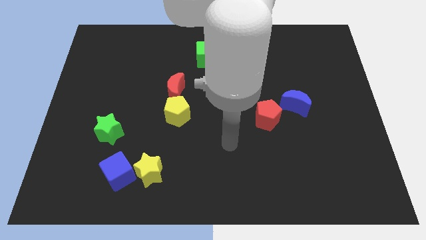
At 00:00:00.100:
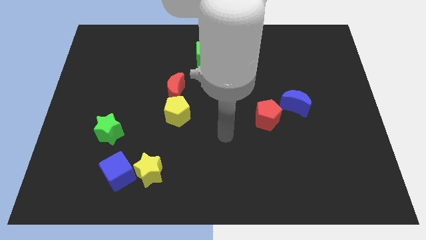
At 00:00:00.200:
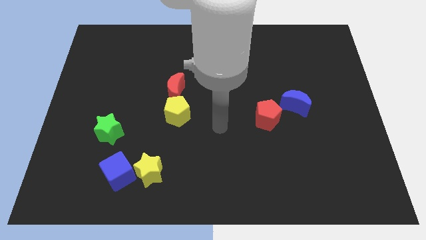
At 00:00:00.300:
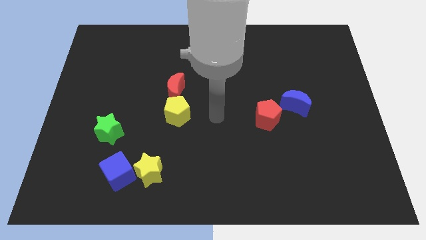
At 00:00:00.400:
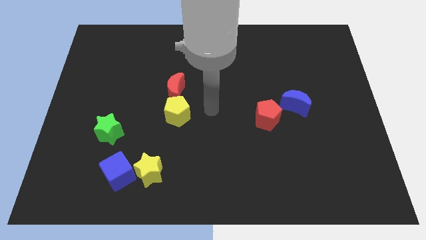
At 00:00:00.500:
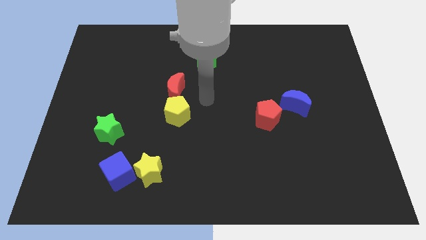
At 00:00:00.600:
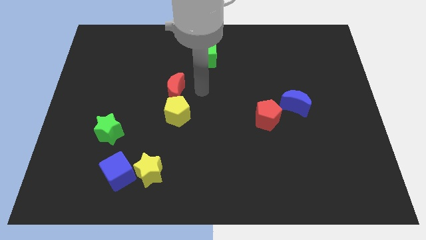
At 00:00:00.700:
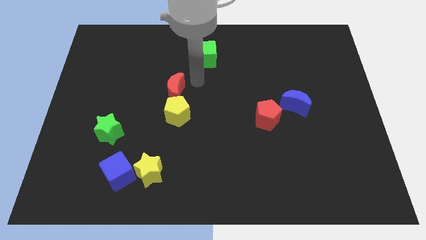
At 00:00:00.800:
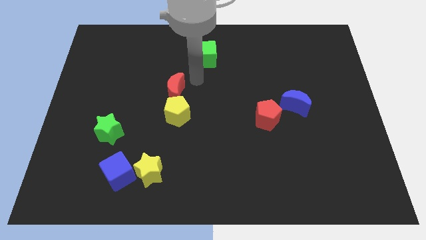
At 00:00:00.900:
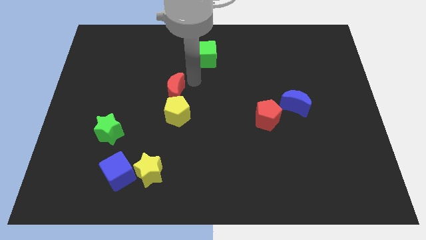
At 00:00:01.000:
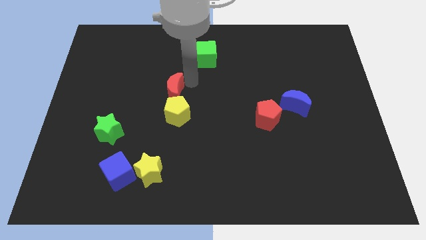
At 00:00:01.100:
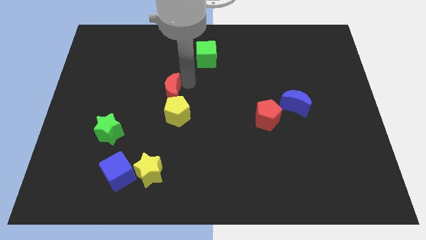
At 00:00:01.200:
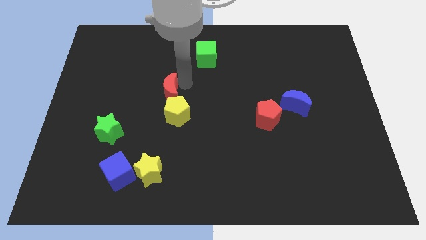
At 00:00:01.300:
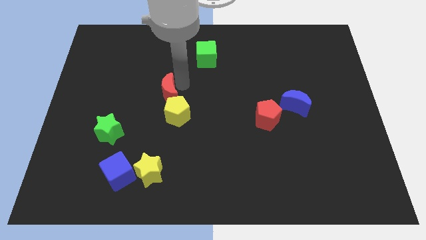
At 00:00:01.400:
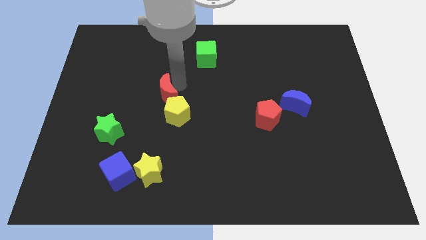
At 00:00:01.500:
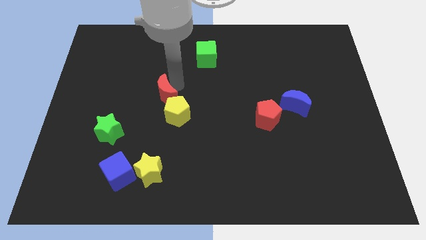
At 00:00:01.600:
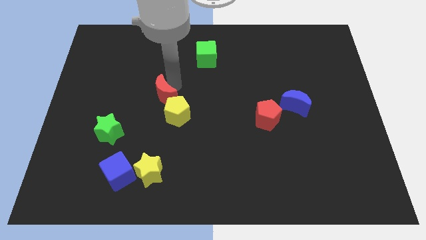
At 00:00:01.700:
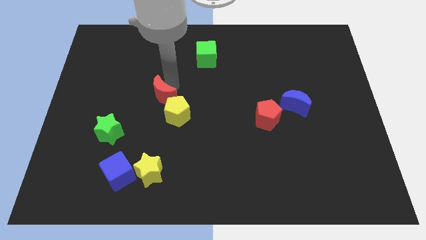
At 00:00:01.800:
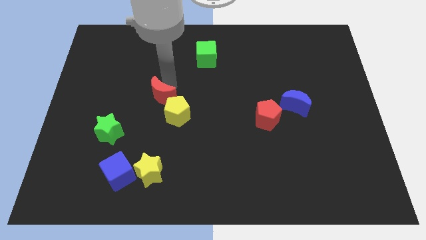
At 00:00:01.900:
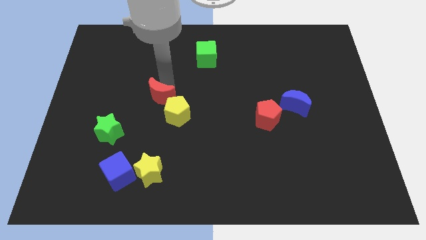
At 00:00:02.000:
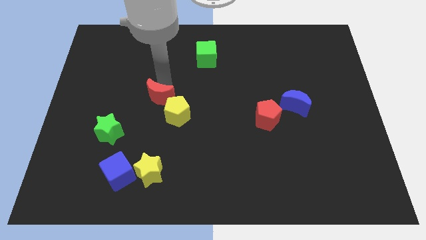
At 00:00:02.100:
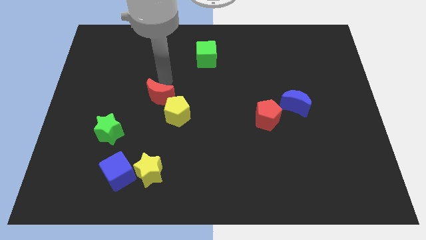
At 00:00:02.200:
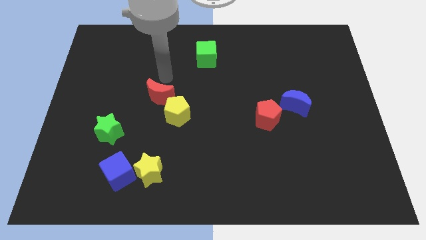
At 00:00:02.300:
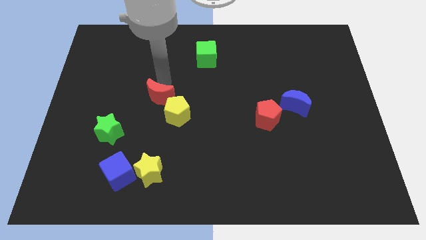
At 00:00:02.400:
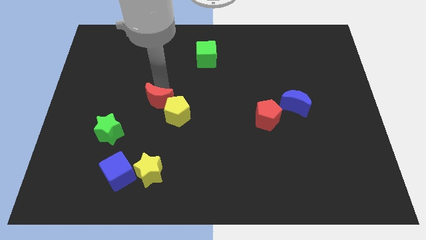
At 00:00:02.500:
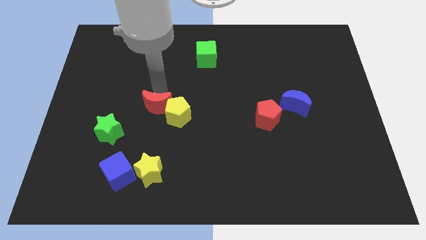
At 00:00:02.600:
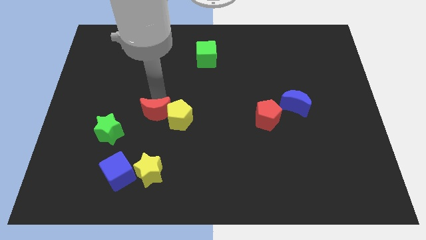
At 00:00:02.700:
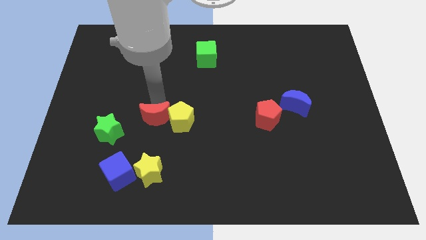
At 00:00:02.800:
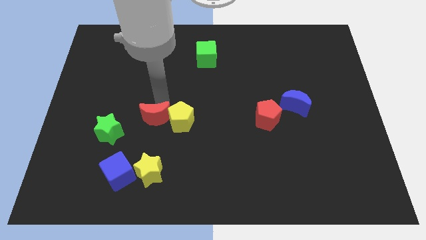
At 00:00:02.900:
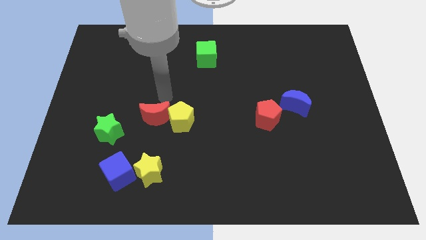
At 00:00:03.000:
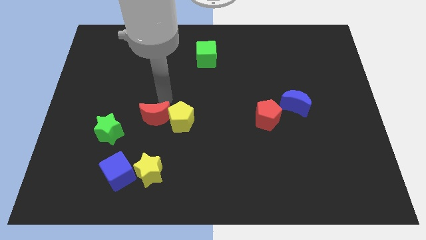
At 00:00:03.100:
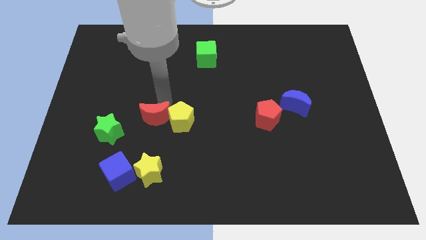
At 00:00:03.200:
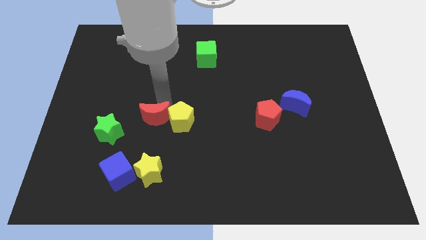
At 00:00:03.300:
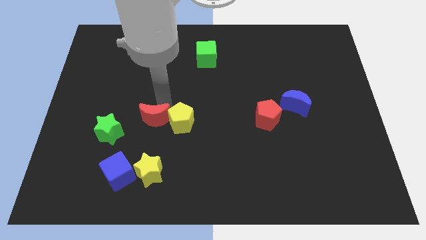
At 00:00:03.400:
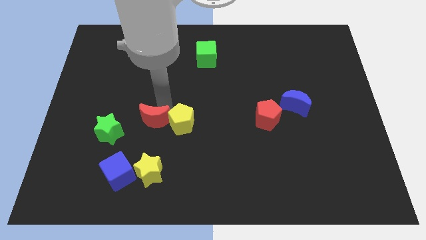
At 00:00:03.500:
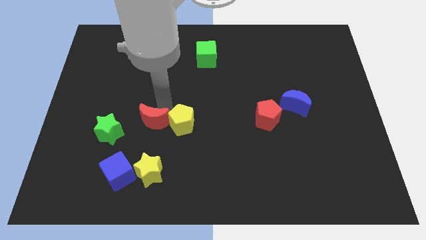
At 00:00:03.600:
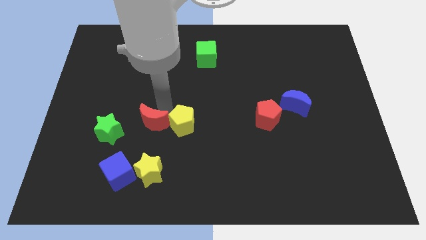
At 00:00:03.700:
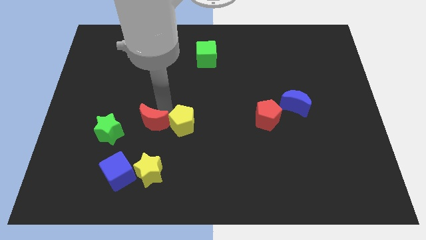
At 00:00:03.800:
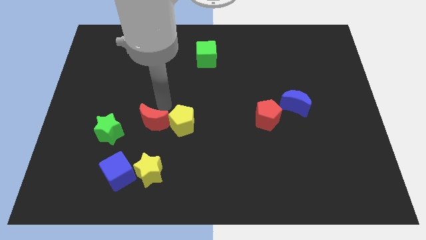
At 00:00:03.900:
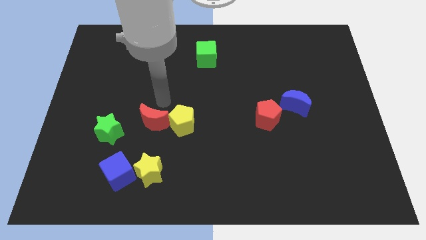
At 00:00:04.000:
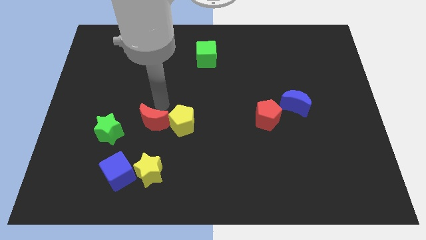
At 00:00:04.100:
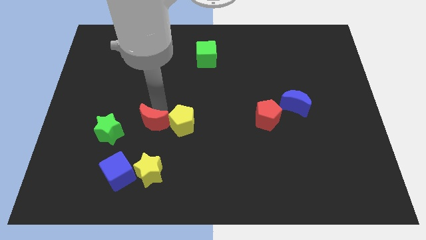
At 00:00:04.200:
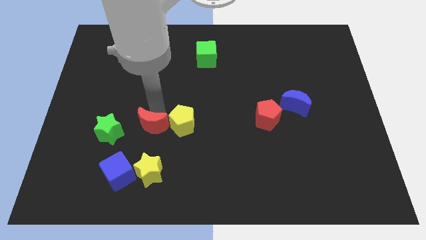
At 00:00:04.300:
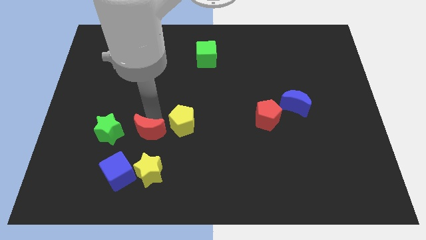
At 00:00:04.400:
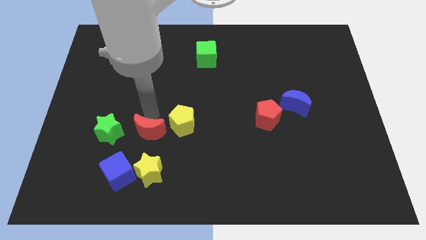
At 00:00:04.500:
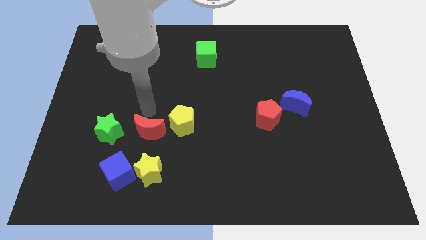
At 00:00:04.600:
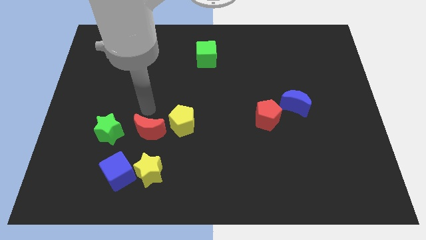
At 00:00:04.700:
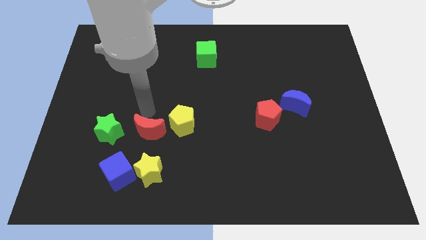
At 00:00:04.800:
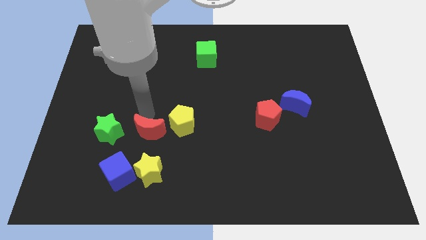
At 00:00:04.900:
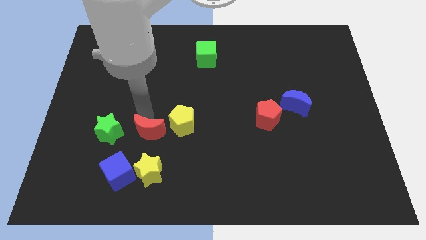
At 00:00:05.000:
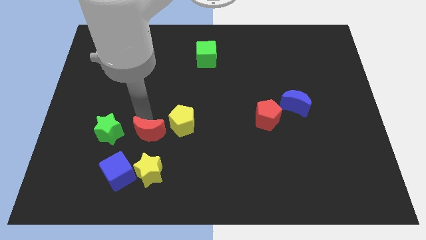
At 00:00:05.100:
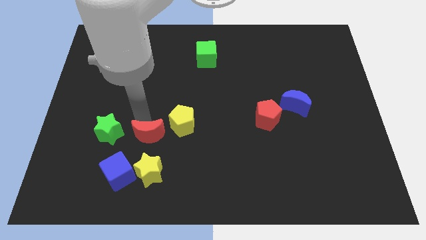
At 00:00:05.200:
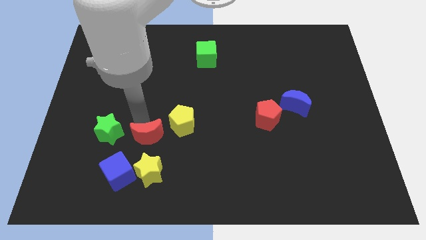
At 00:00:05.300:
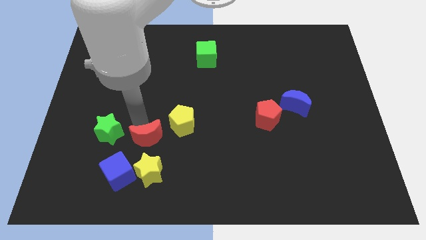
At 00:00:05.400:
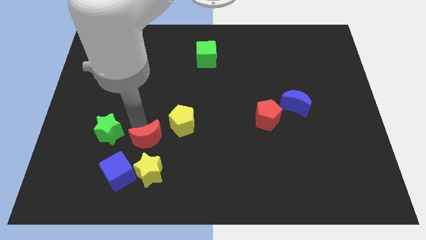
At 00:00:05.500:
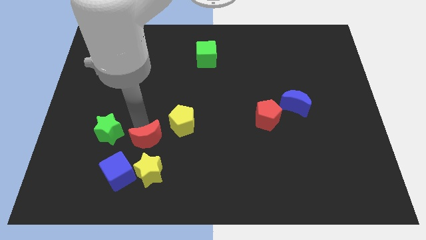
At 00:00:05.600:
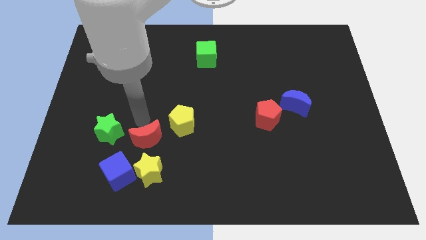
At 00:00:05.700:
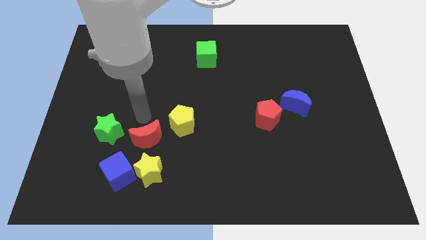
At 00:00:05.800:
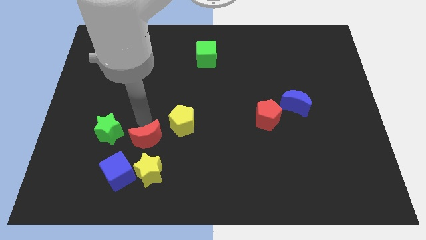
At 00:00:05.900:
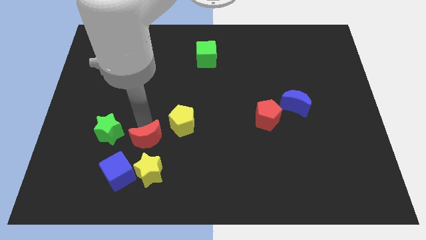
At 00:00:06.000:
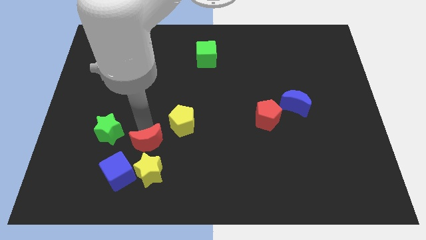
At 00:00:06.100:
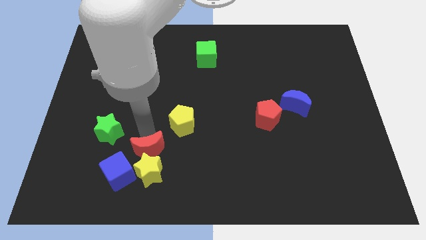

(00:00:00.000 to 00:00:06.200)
put the red moon to the yellow star
